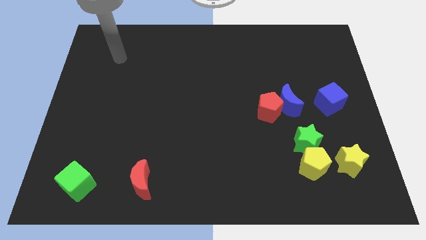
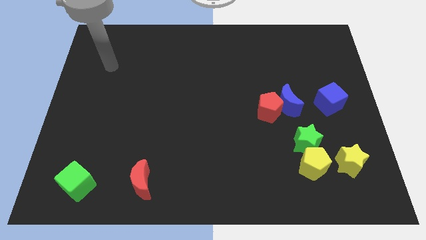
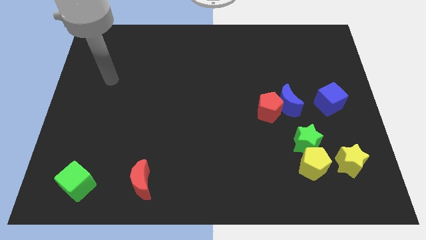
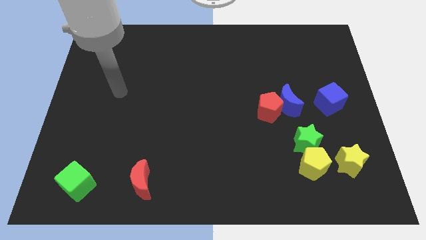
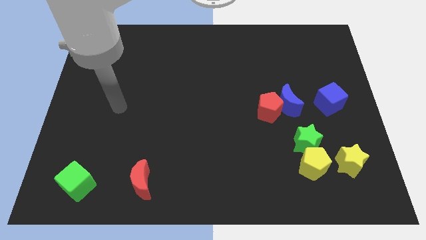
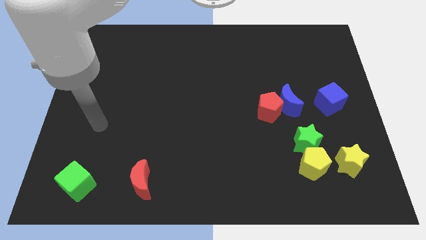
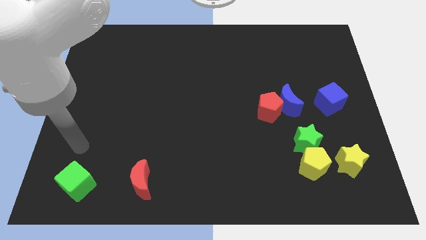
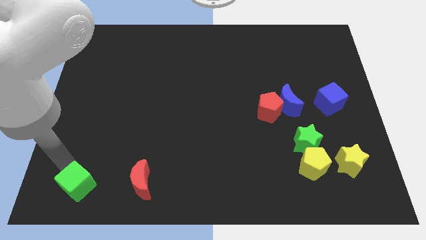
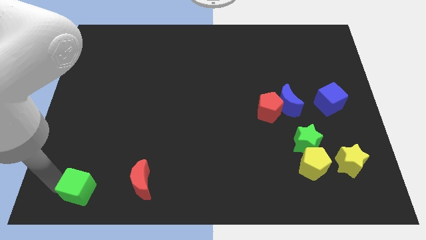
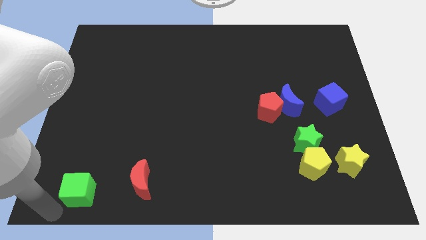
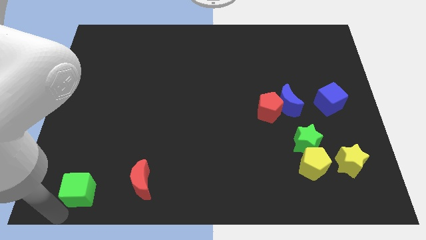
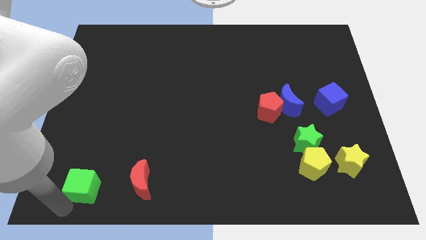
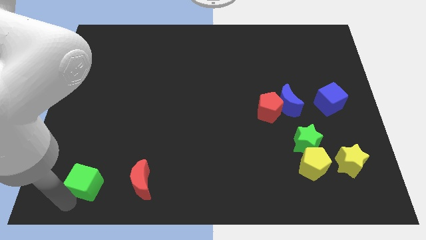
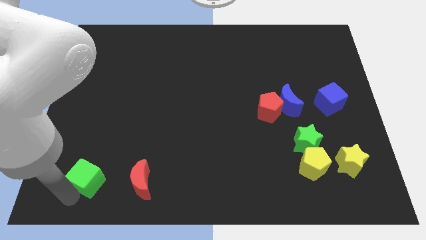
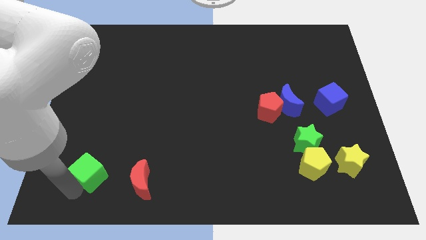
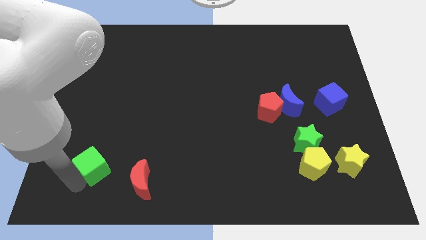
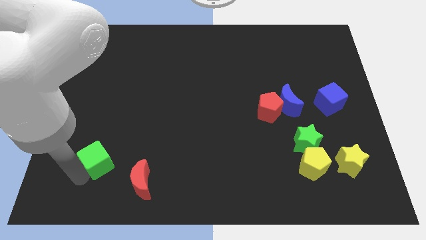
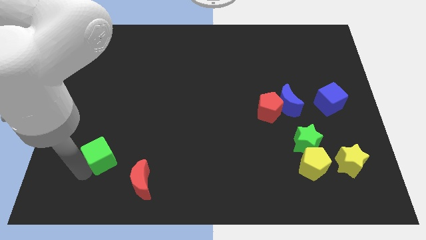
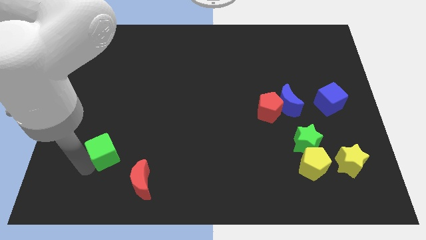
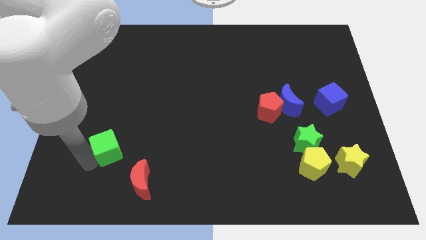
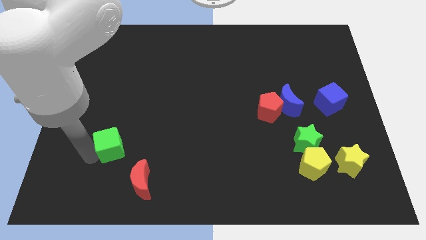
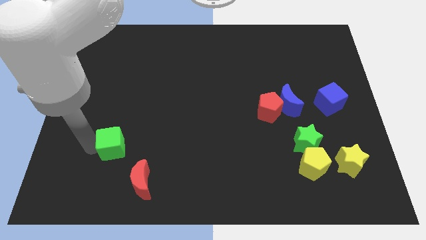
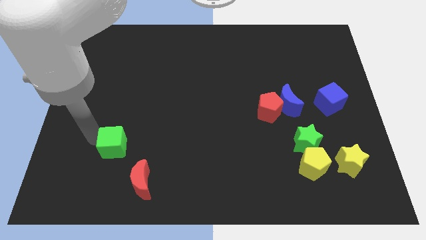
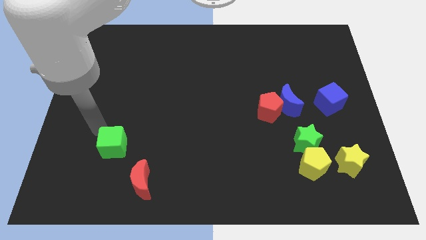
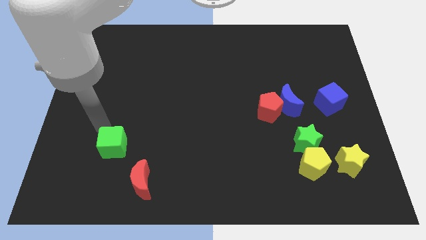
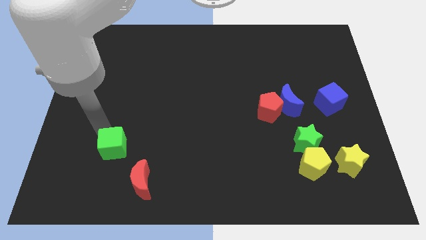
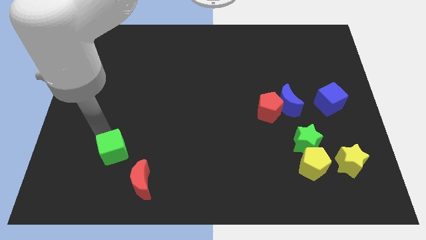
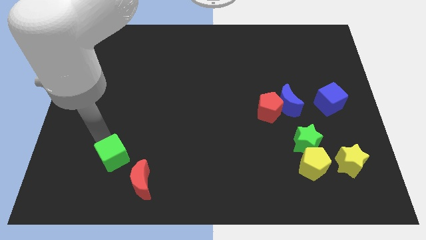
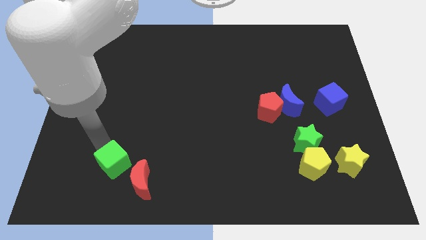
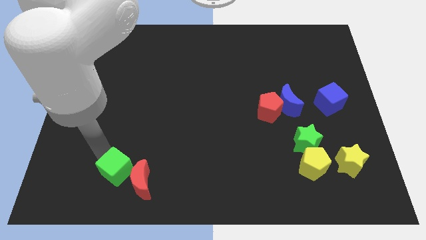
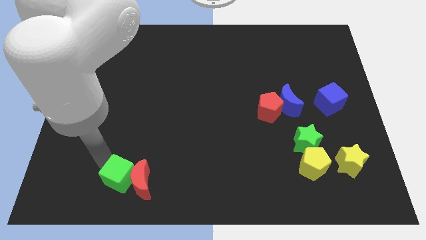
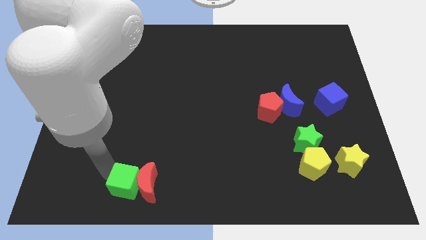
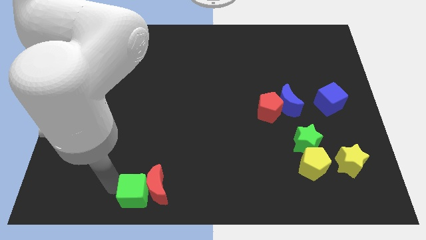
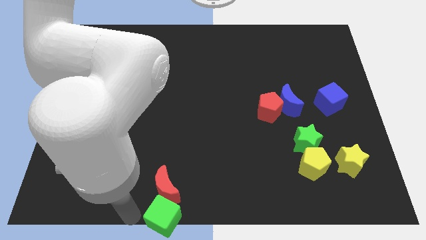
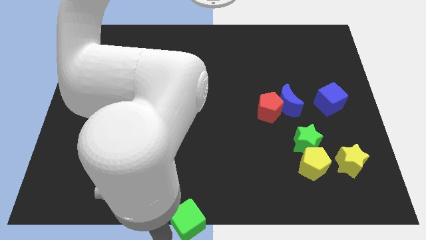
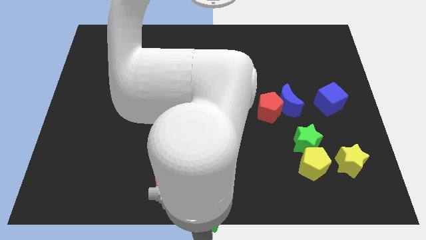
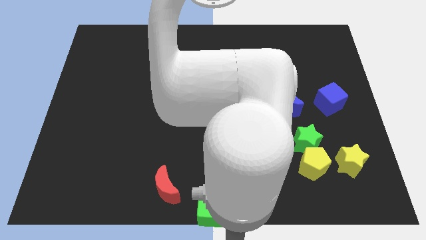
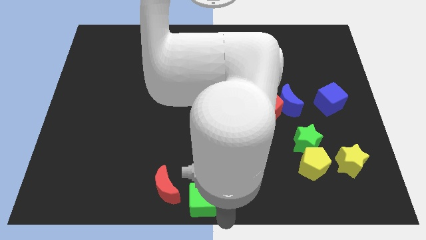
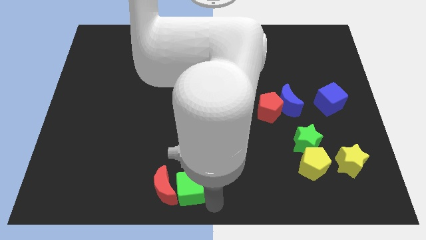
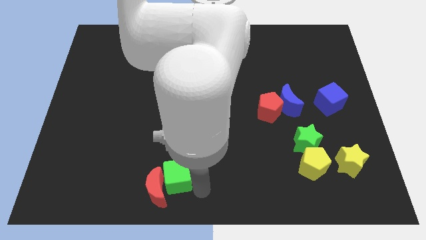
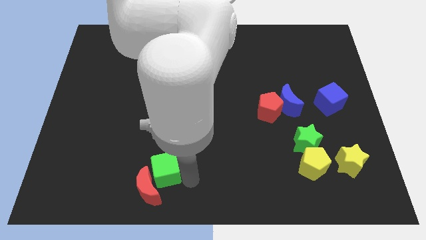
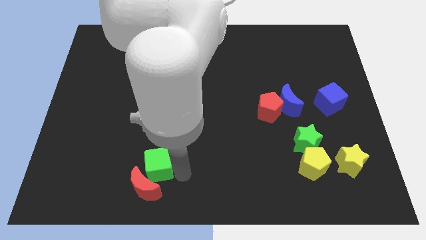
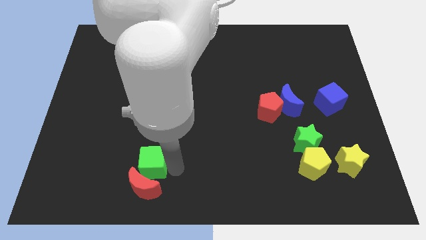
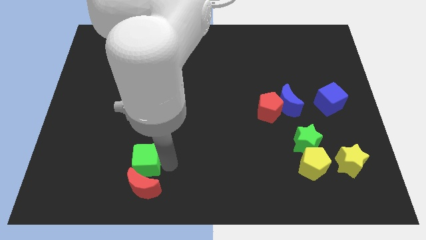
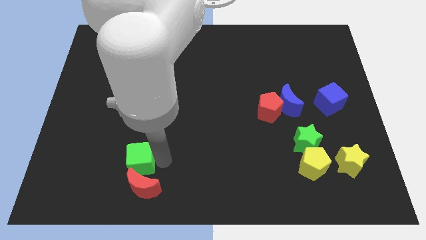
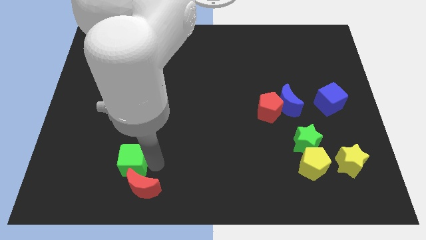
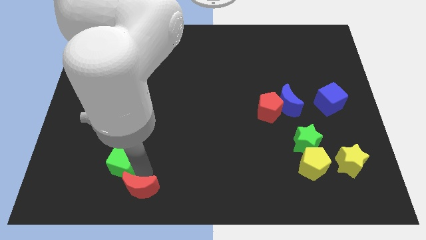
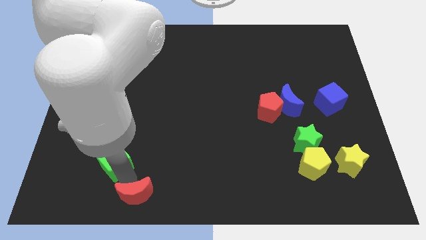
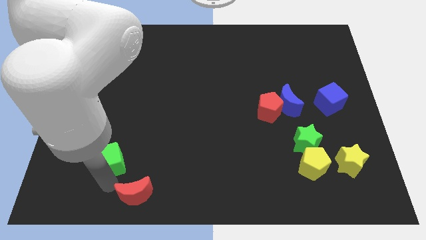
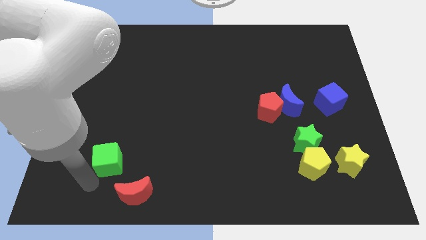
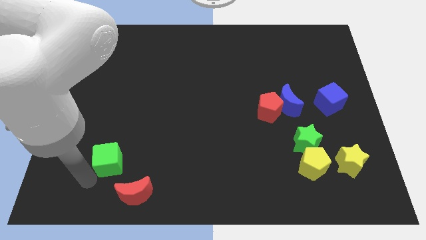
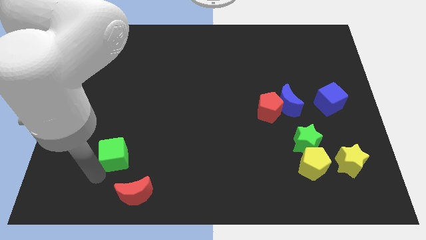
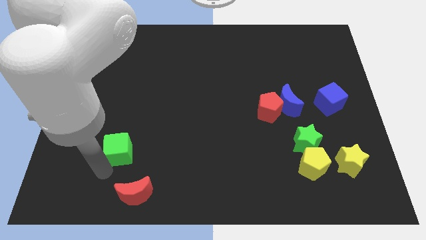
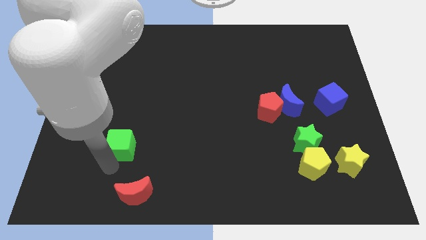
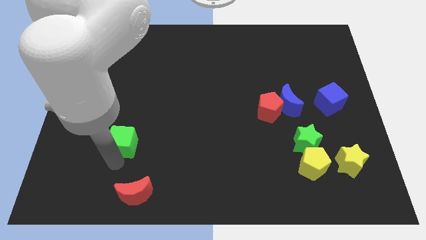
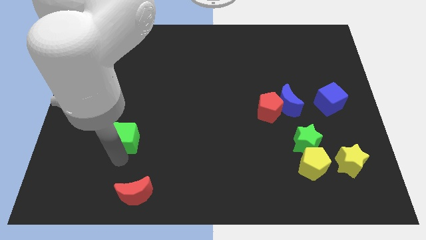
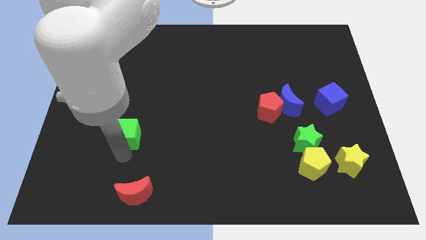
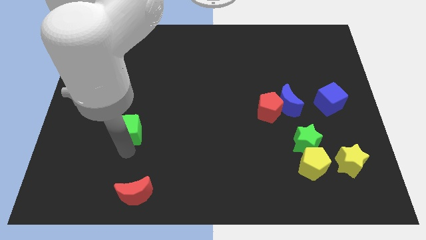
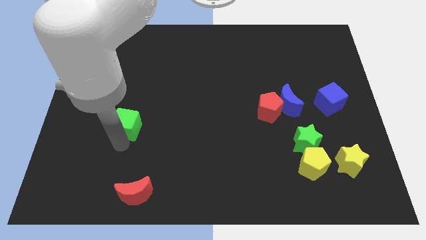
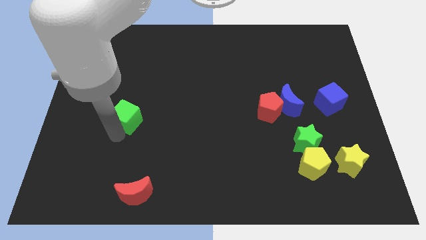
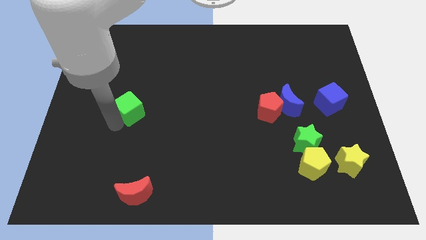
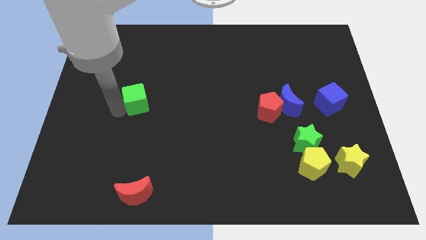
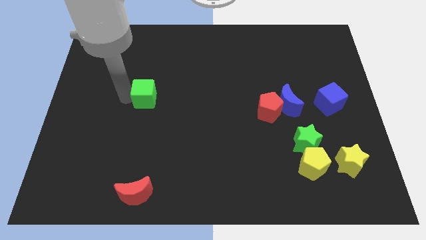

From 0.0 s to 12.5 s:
push the green cube upwards and to the right diagonally

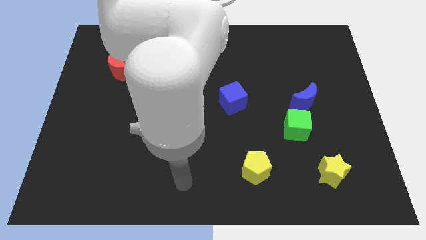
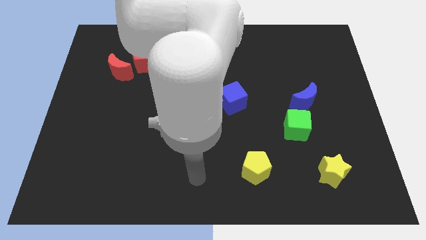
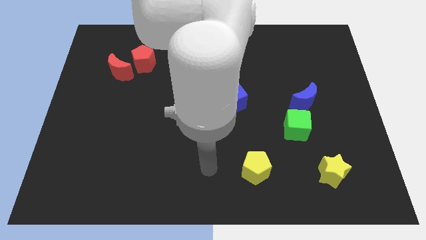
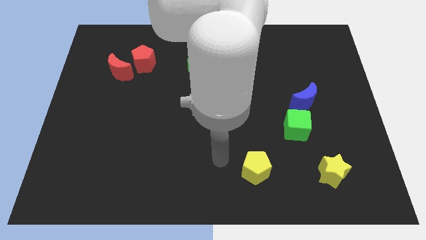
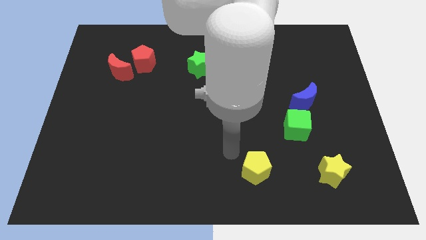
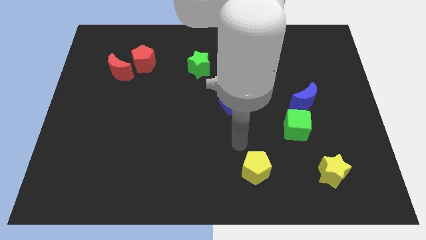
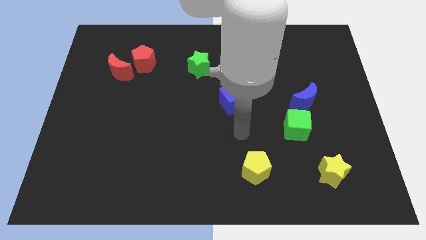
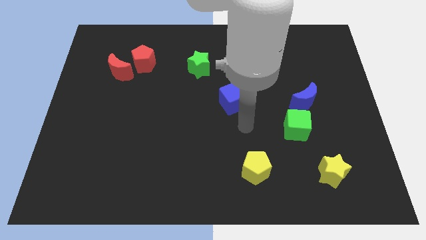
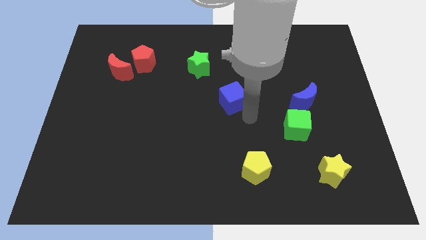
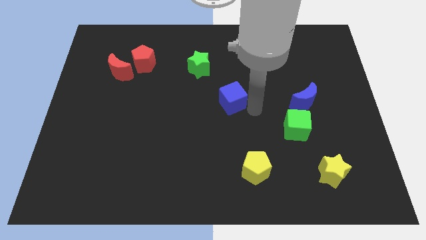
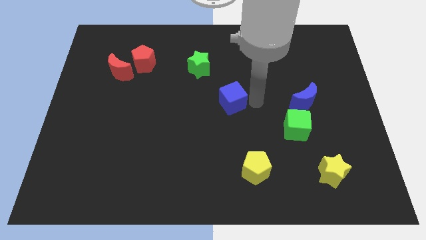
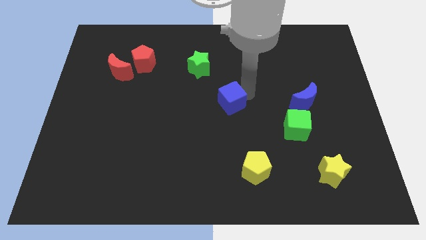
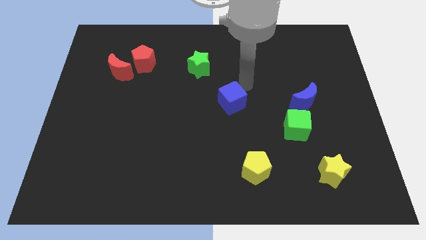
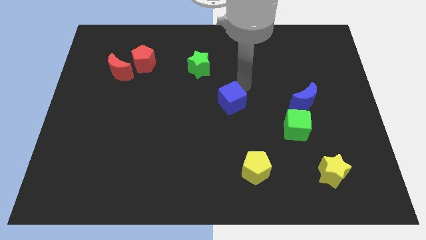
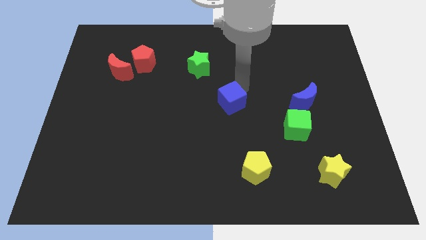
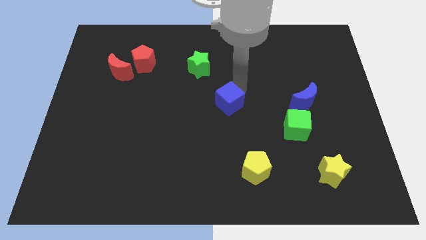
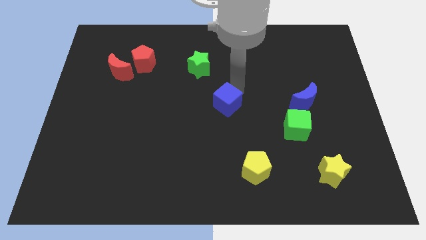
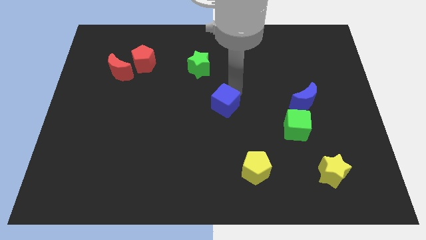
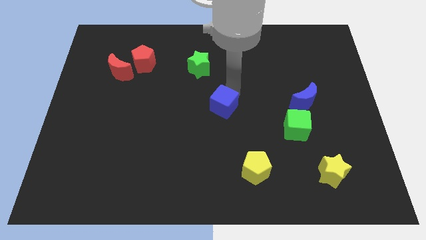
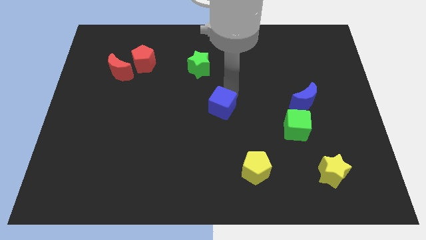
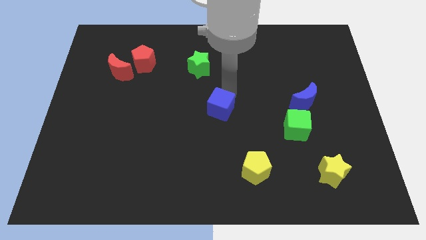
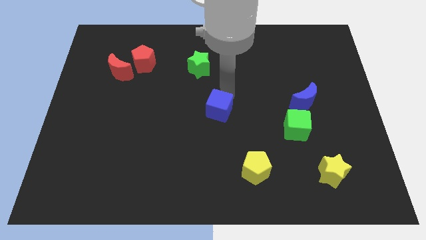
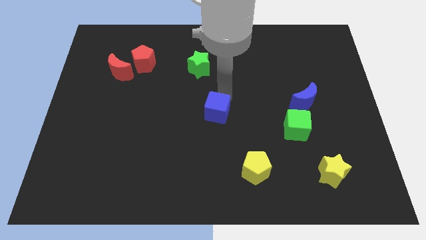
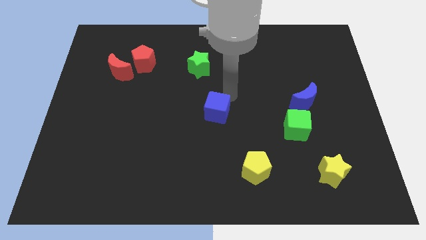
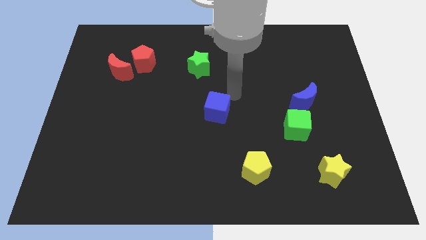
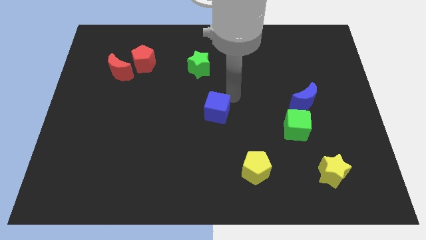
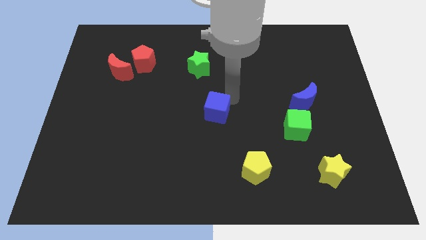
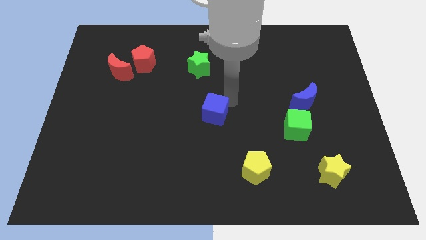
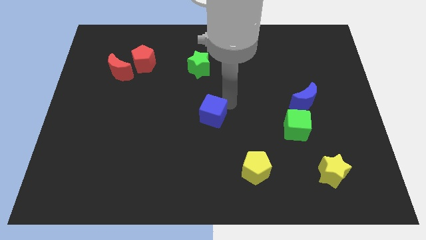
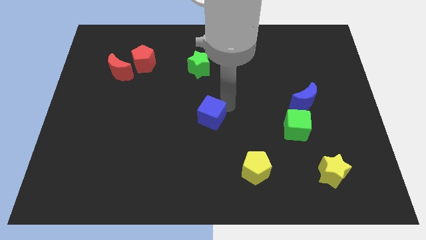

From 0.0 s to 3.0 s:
move the blue cube a little downwards and to the left diagonally
